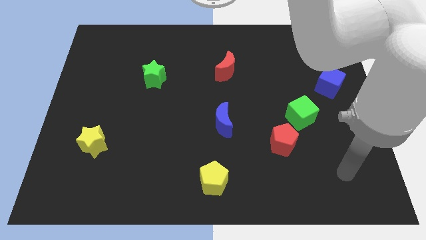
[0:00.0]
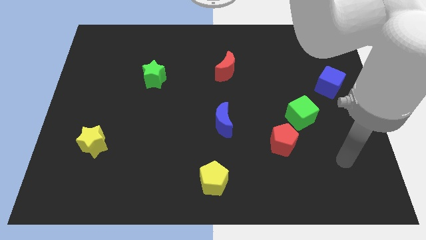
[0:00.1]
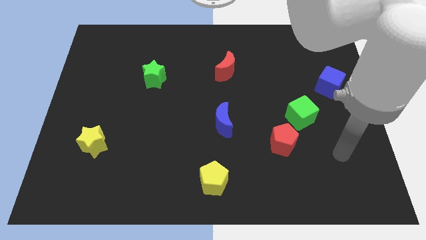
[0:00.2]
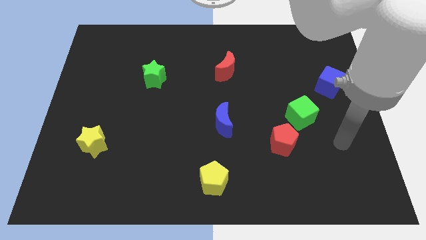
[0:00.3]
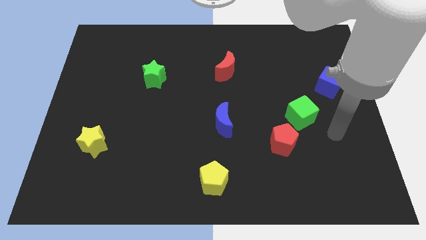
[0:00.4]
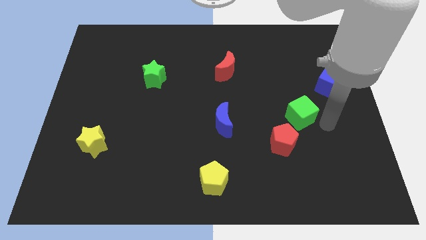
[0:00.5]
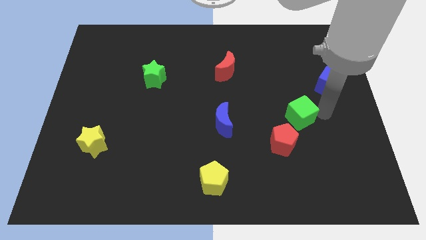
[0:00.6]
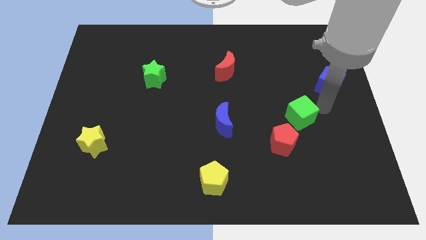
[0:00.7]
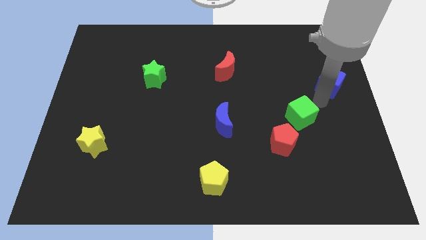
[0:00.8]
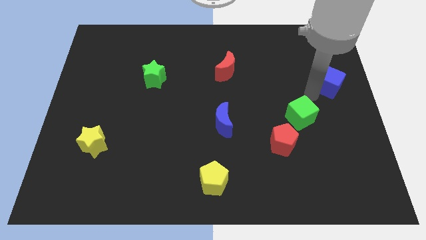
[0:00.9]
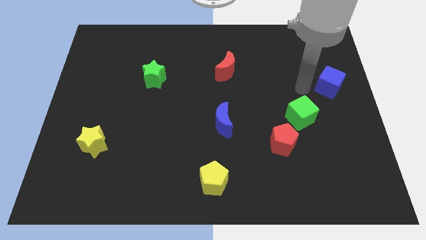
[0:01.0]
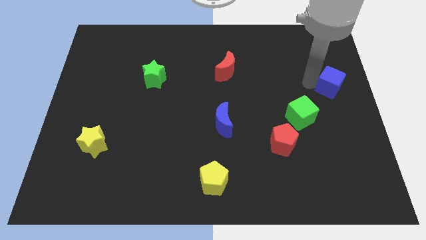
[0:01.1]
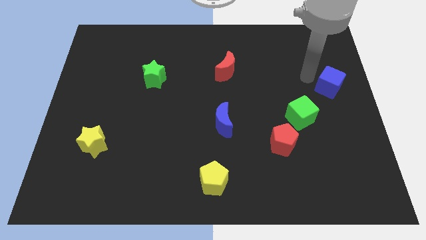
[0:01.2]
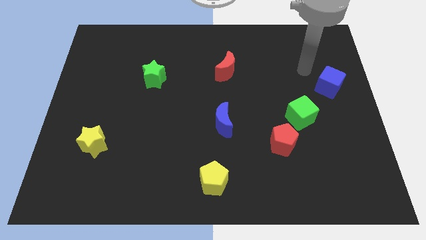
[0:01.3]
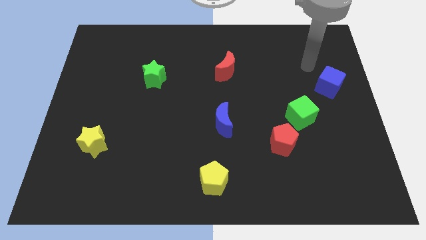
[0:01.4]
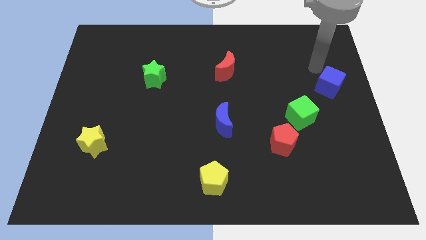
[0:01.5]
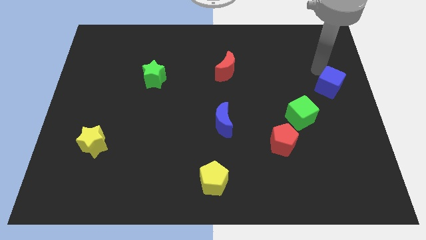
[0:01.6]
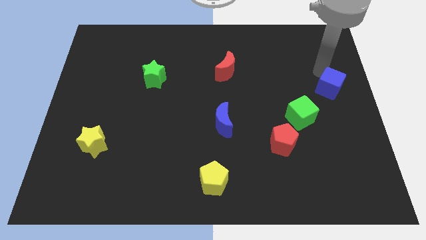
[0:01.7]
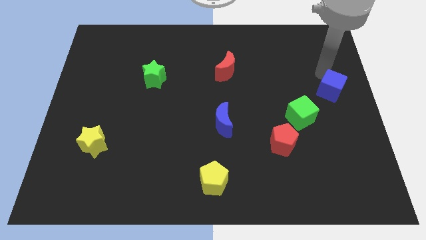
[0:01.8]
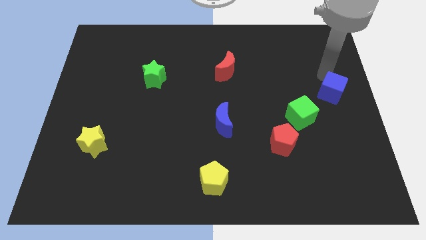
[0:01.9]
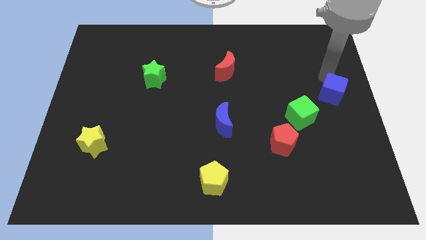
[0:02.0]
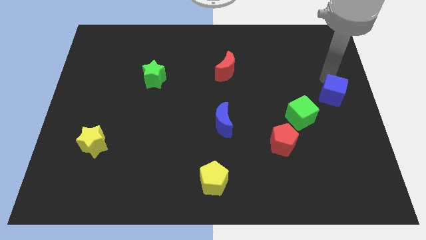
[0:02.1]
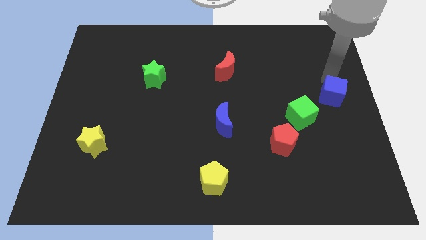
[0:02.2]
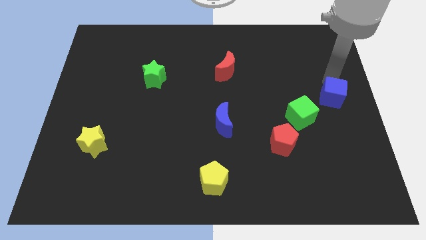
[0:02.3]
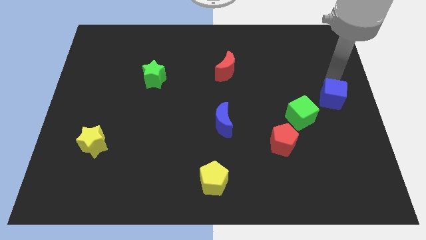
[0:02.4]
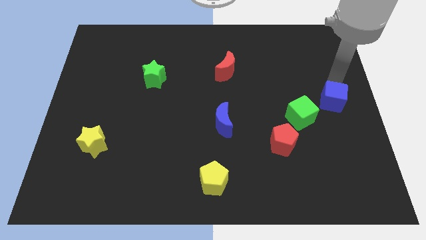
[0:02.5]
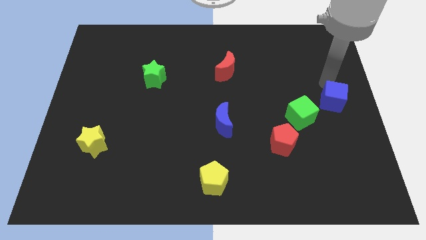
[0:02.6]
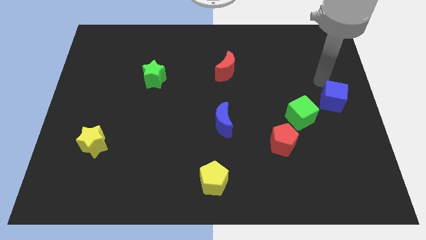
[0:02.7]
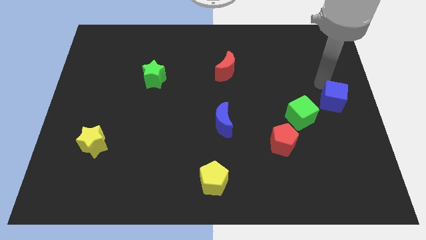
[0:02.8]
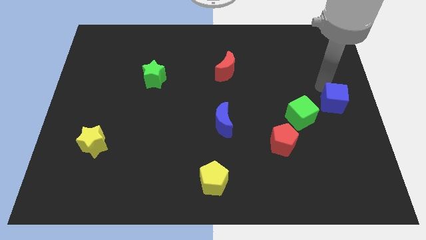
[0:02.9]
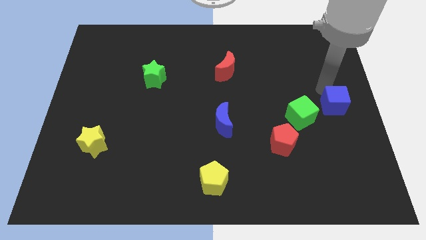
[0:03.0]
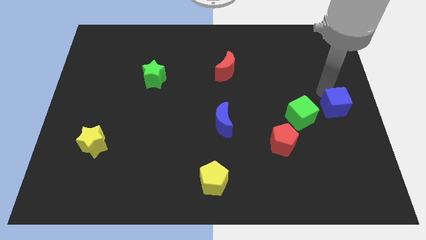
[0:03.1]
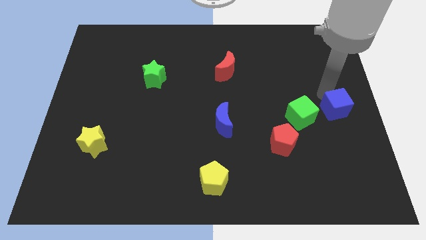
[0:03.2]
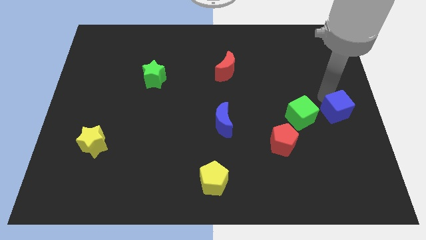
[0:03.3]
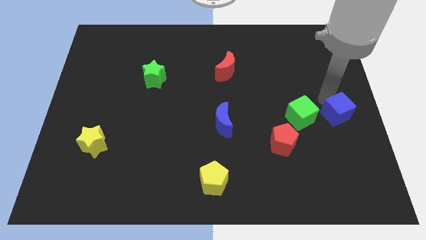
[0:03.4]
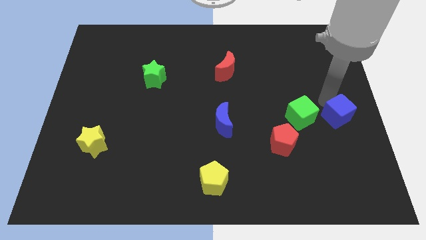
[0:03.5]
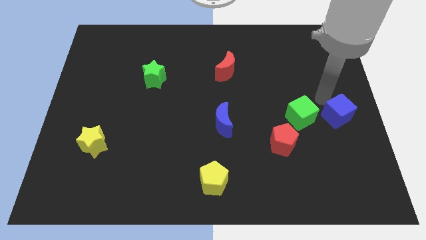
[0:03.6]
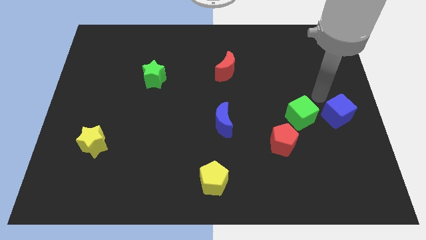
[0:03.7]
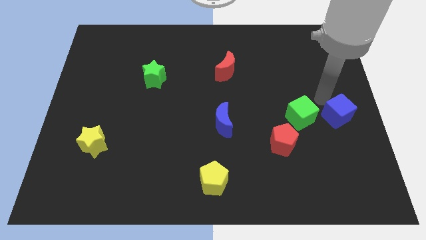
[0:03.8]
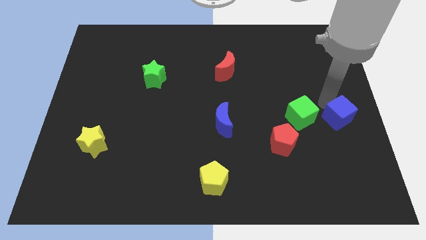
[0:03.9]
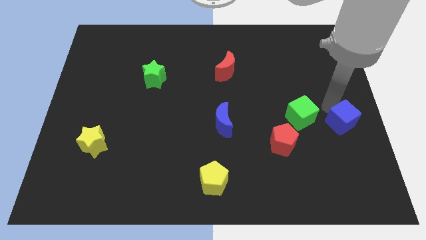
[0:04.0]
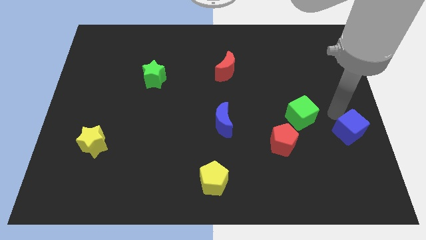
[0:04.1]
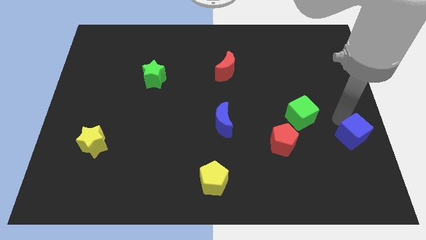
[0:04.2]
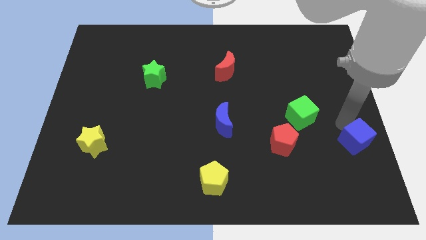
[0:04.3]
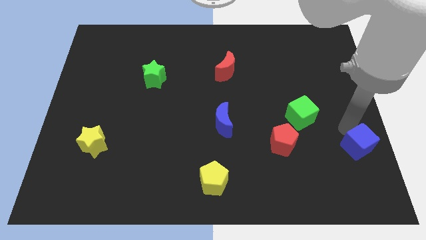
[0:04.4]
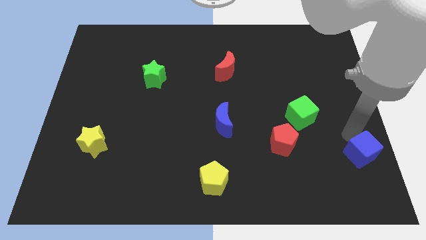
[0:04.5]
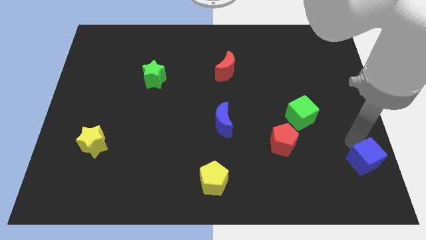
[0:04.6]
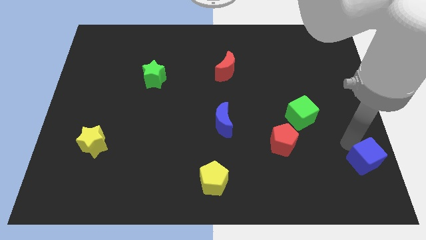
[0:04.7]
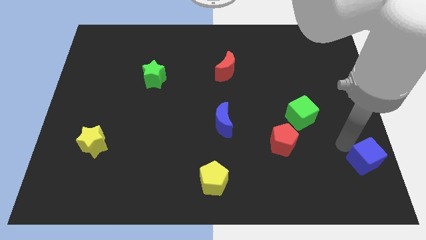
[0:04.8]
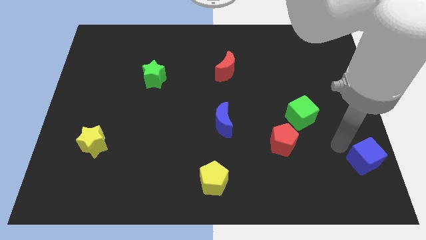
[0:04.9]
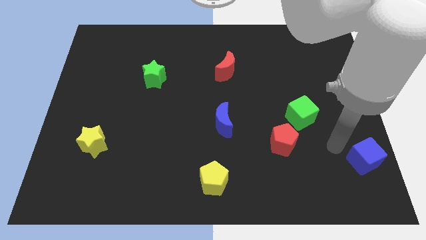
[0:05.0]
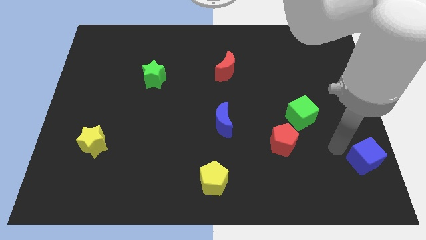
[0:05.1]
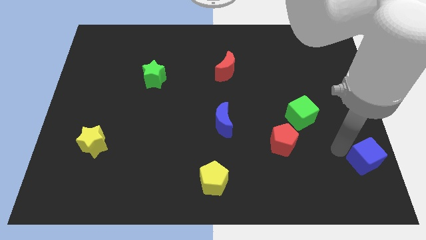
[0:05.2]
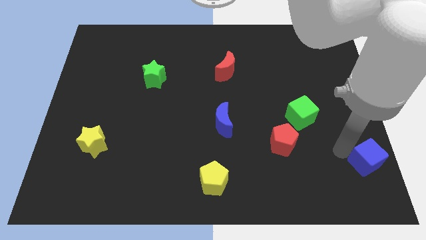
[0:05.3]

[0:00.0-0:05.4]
move the blue cube to the bottom right of the board

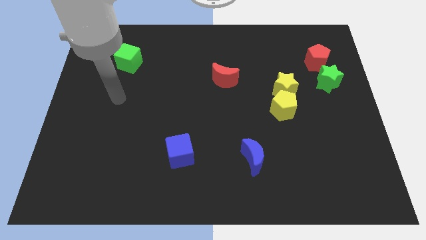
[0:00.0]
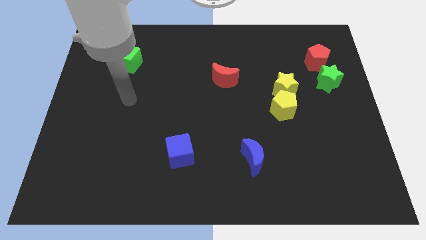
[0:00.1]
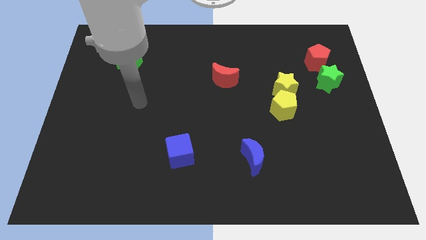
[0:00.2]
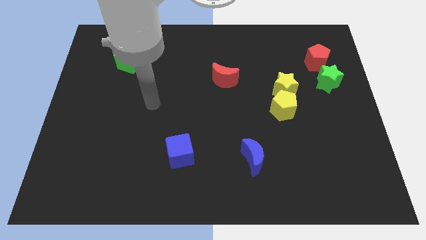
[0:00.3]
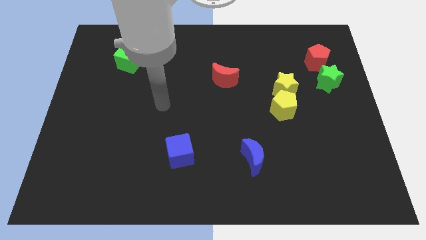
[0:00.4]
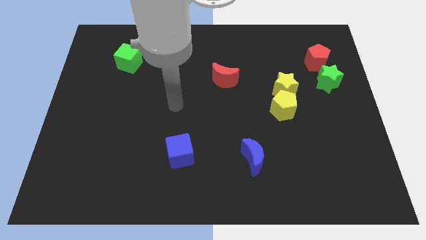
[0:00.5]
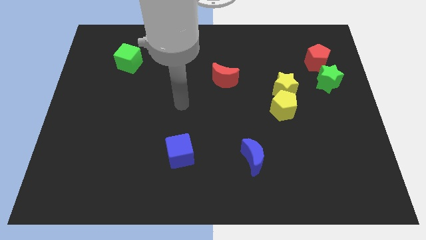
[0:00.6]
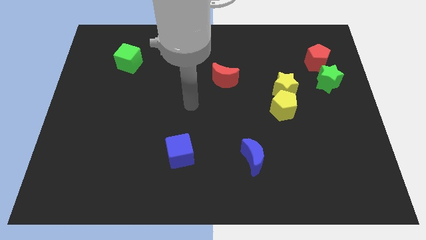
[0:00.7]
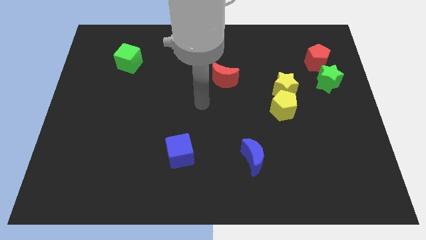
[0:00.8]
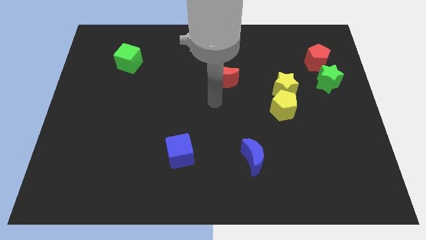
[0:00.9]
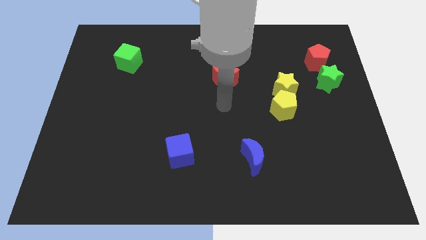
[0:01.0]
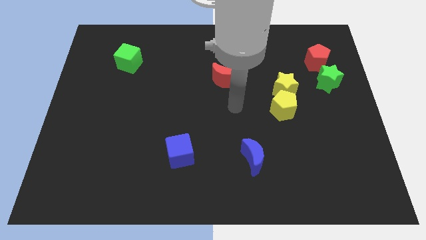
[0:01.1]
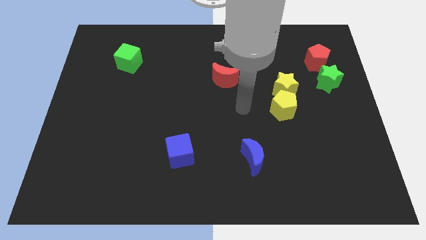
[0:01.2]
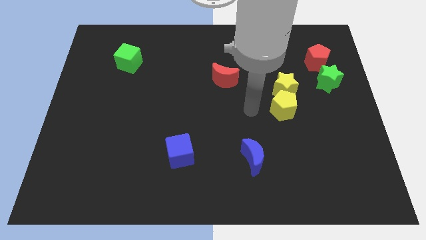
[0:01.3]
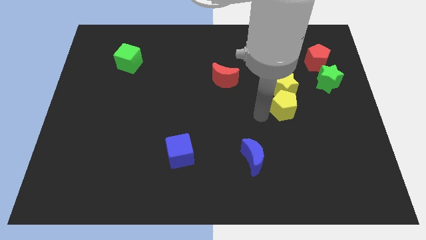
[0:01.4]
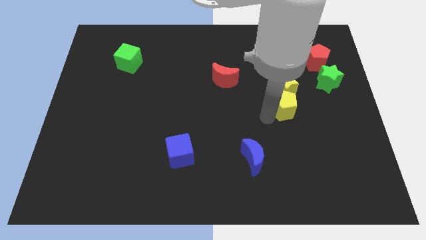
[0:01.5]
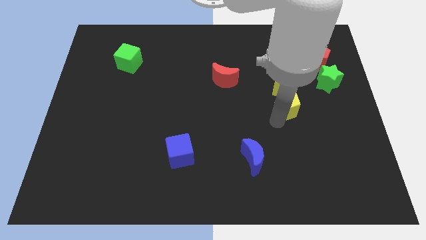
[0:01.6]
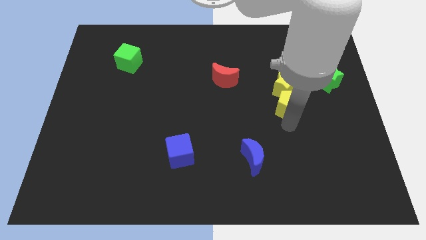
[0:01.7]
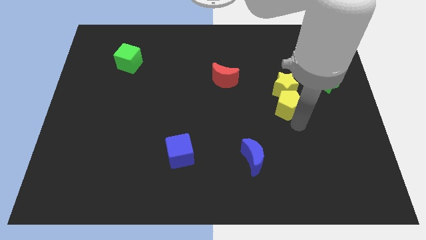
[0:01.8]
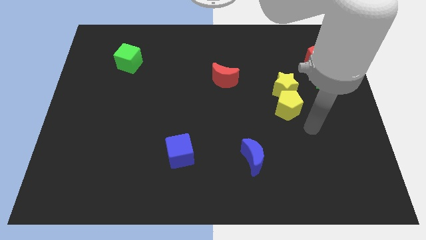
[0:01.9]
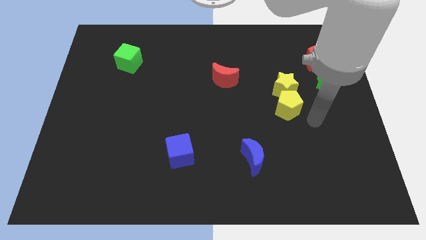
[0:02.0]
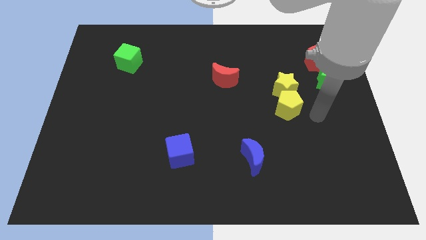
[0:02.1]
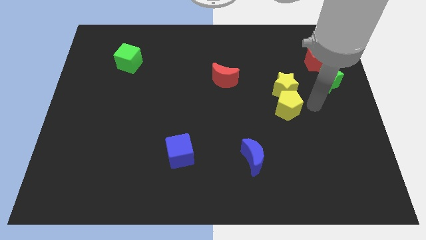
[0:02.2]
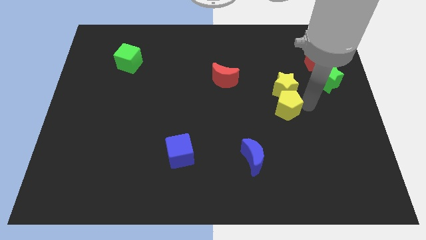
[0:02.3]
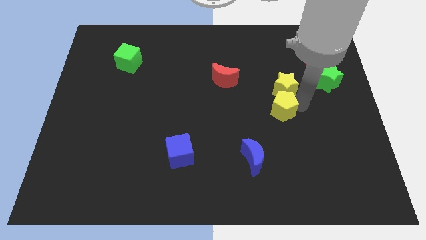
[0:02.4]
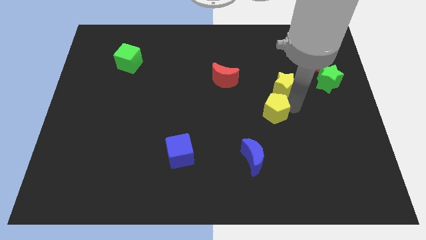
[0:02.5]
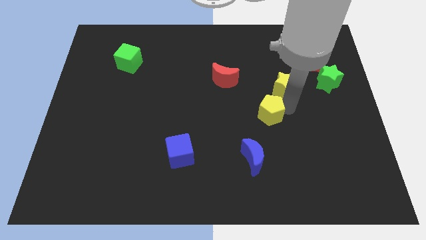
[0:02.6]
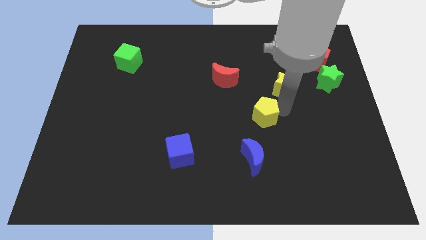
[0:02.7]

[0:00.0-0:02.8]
slide the yellow pentagon to the center
